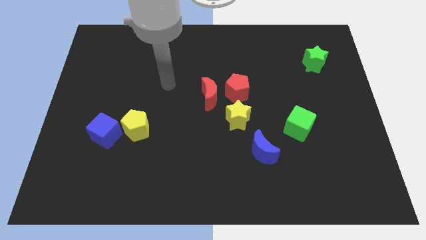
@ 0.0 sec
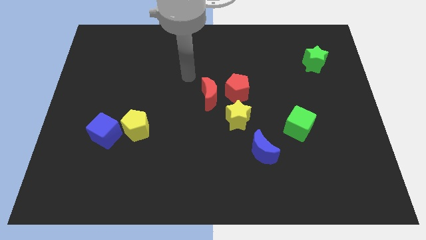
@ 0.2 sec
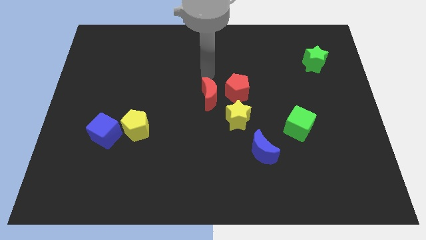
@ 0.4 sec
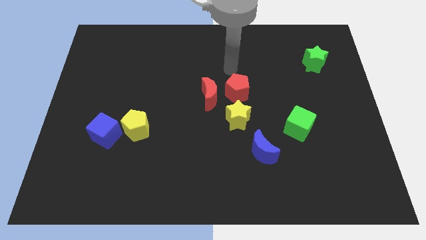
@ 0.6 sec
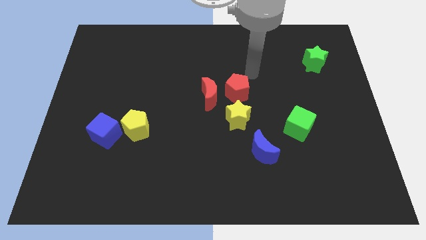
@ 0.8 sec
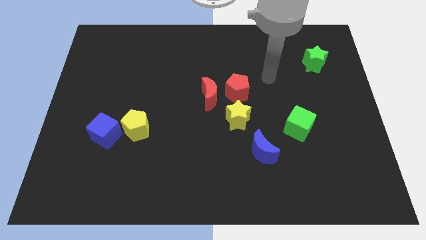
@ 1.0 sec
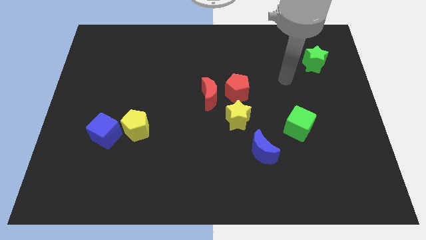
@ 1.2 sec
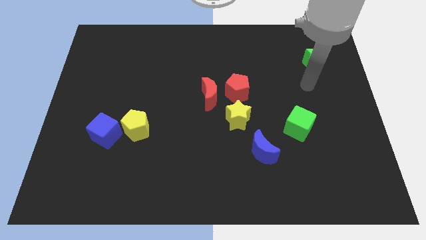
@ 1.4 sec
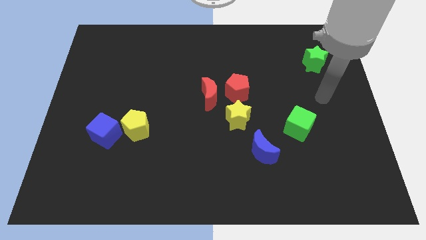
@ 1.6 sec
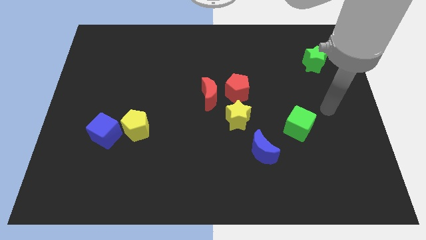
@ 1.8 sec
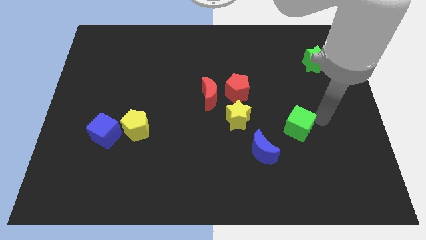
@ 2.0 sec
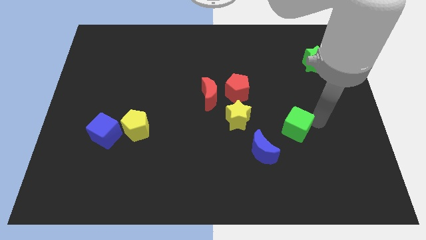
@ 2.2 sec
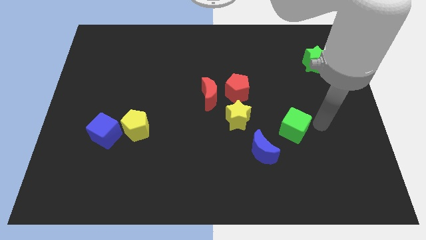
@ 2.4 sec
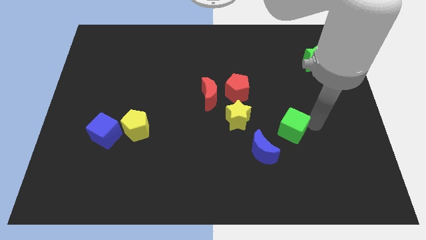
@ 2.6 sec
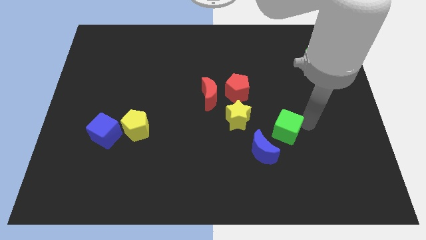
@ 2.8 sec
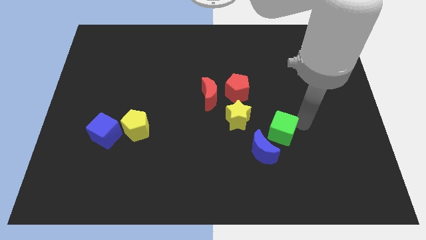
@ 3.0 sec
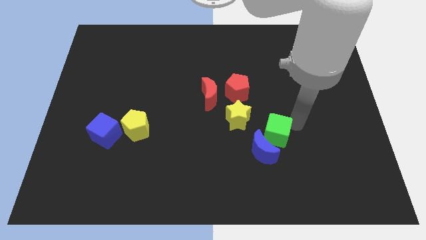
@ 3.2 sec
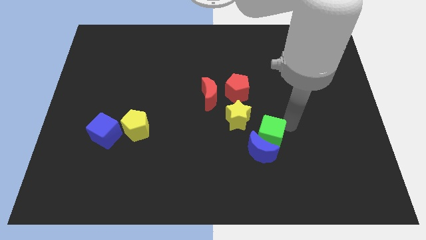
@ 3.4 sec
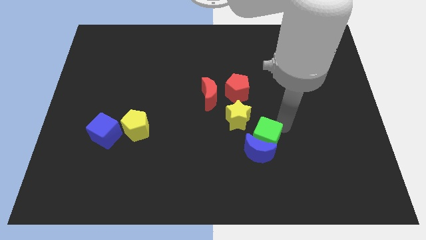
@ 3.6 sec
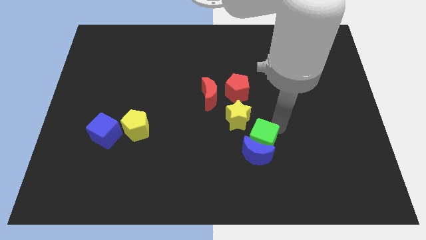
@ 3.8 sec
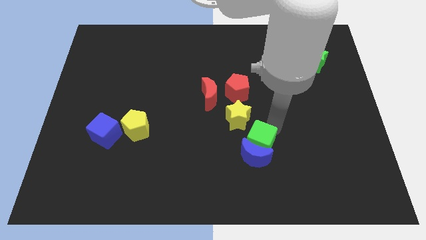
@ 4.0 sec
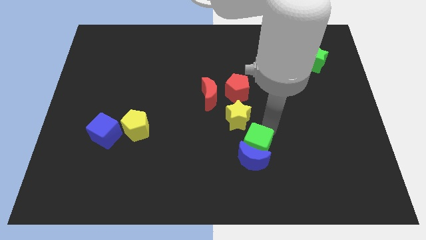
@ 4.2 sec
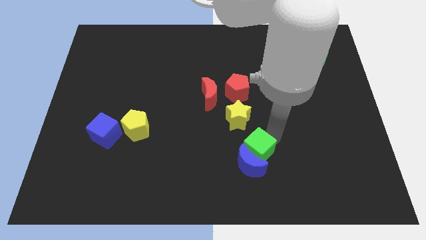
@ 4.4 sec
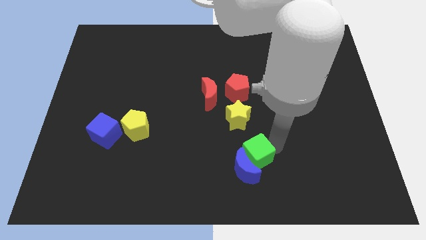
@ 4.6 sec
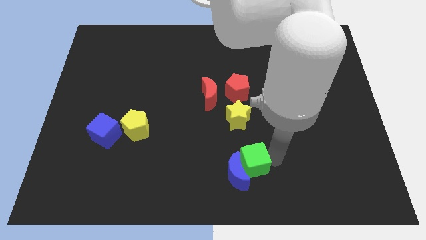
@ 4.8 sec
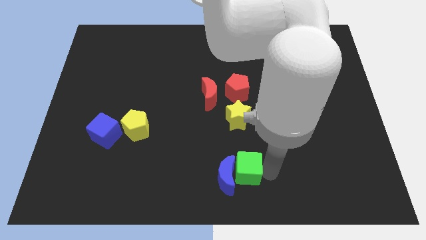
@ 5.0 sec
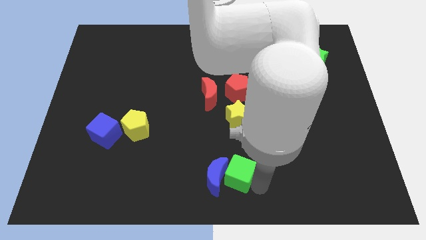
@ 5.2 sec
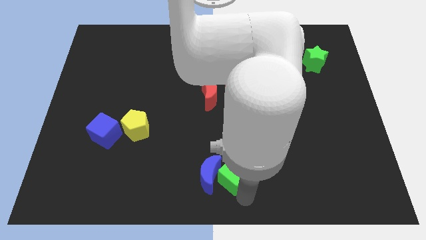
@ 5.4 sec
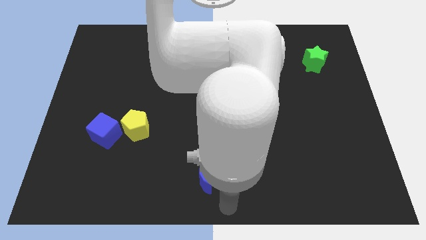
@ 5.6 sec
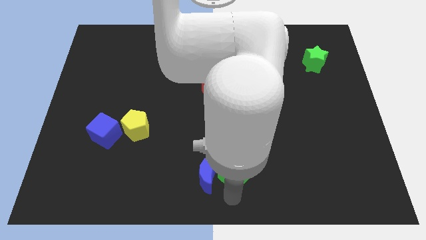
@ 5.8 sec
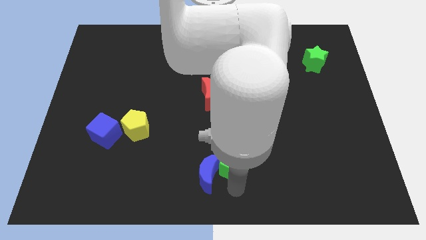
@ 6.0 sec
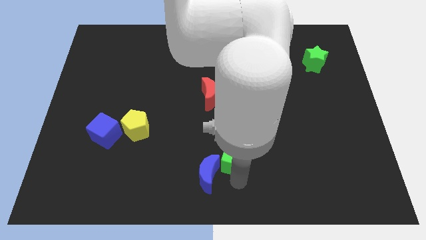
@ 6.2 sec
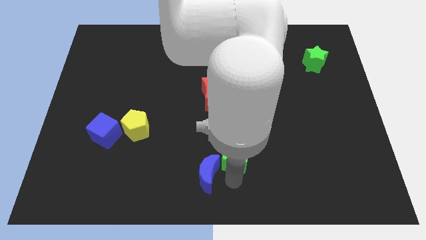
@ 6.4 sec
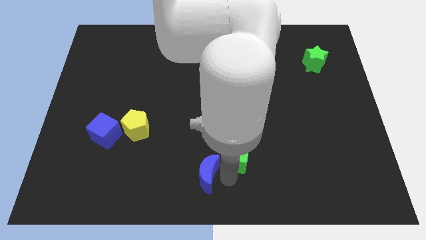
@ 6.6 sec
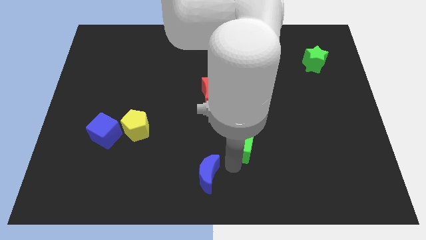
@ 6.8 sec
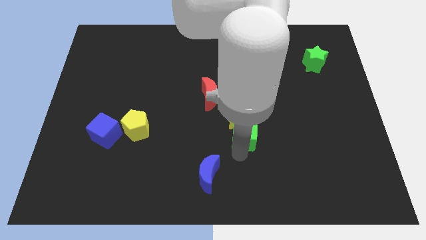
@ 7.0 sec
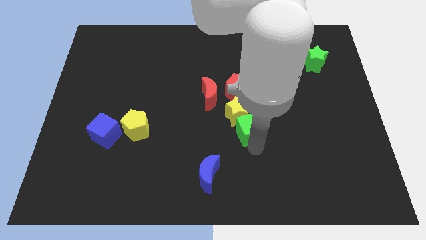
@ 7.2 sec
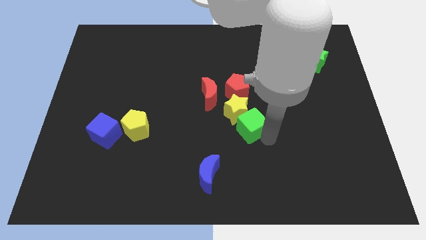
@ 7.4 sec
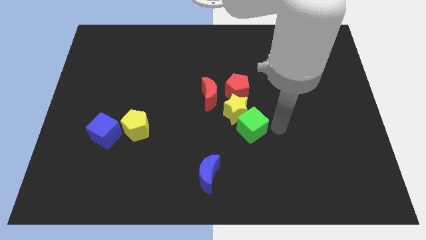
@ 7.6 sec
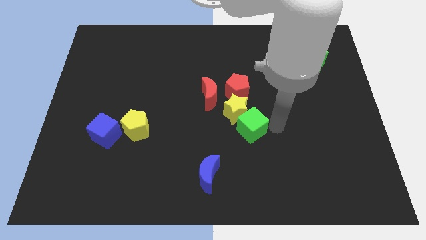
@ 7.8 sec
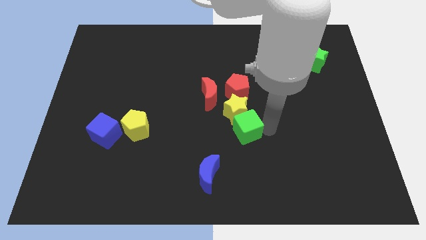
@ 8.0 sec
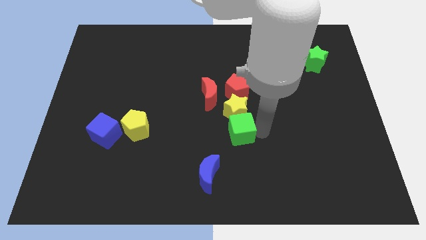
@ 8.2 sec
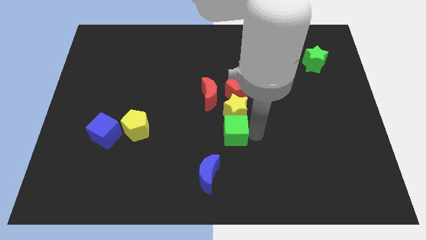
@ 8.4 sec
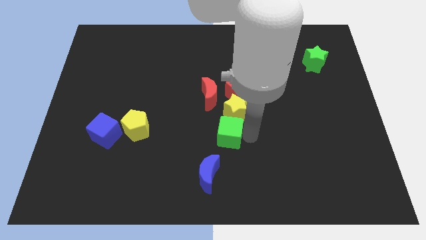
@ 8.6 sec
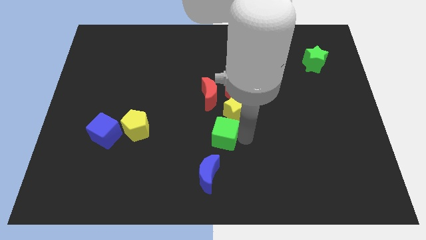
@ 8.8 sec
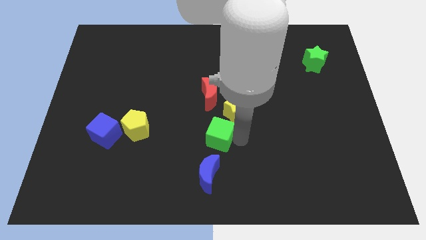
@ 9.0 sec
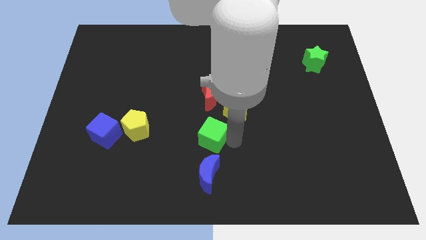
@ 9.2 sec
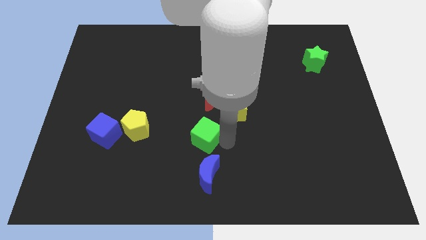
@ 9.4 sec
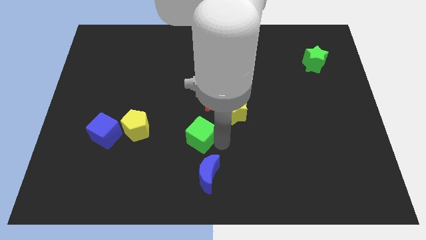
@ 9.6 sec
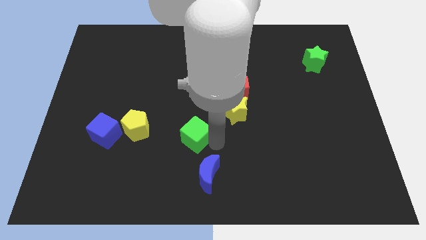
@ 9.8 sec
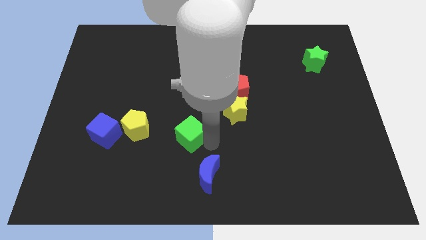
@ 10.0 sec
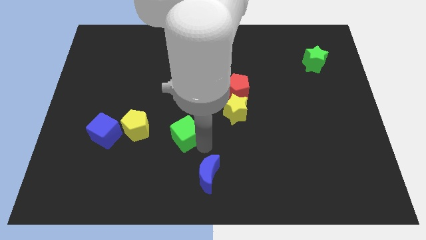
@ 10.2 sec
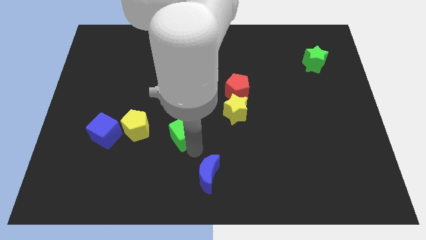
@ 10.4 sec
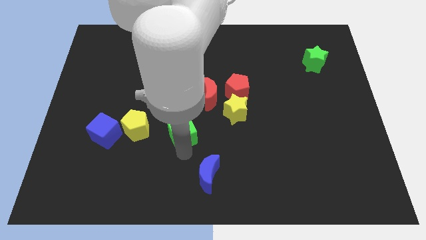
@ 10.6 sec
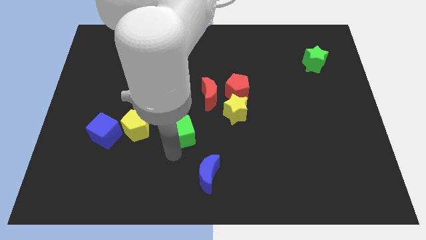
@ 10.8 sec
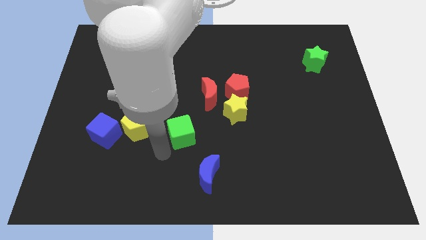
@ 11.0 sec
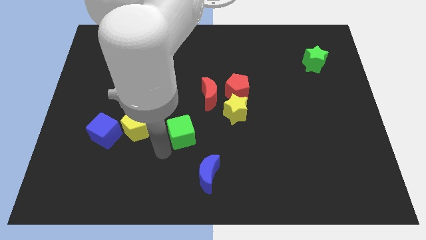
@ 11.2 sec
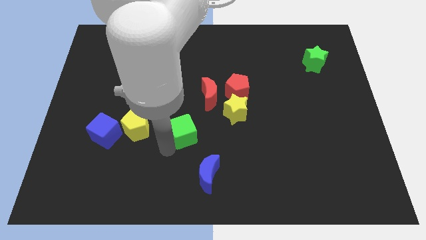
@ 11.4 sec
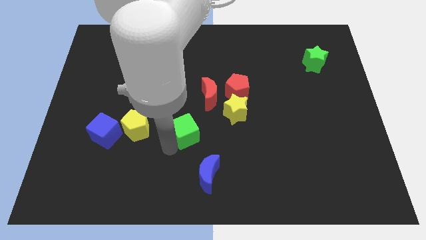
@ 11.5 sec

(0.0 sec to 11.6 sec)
push the green cube to the bottom left side of the red moon

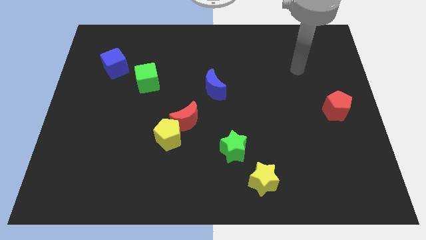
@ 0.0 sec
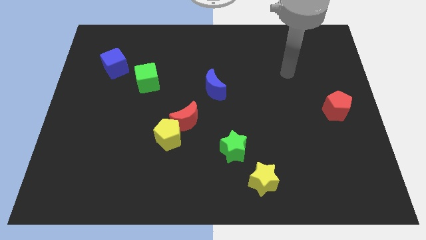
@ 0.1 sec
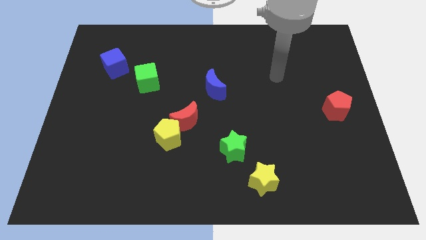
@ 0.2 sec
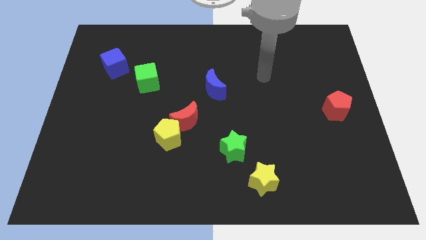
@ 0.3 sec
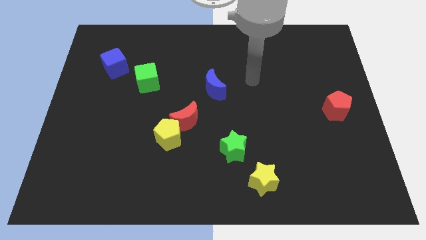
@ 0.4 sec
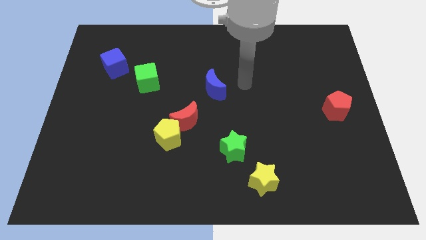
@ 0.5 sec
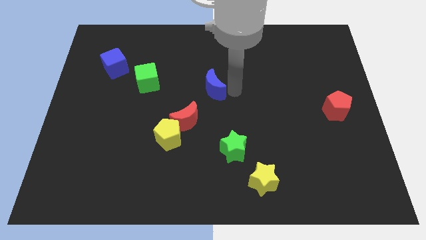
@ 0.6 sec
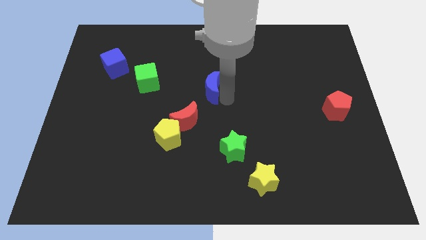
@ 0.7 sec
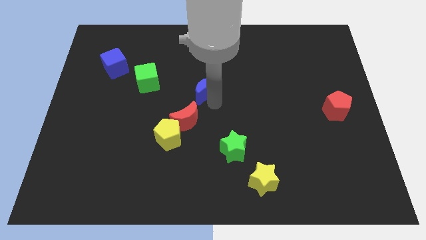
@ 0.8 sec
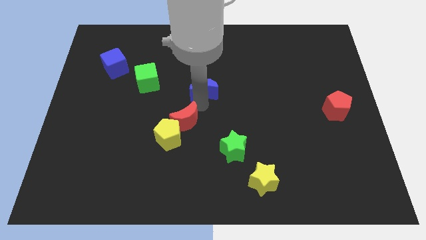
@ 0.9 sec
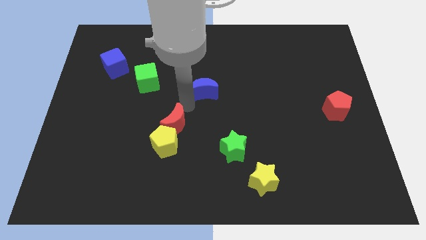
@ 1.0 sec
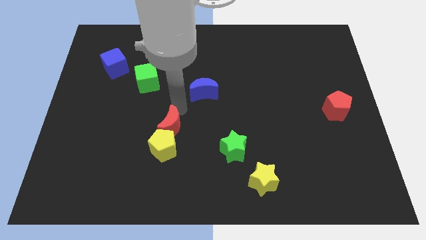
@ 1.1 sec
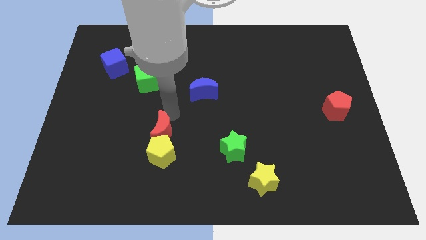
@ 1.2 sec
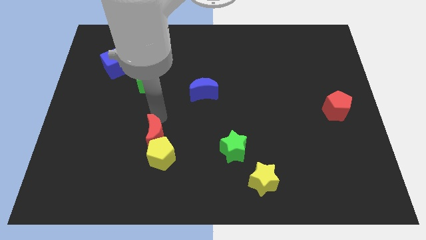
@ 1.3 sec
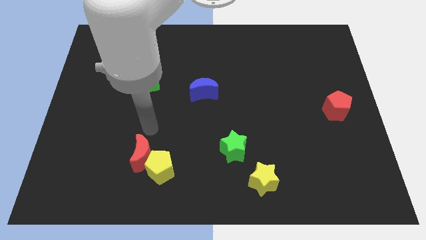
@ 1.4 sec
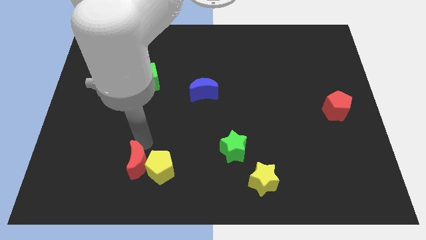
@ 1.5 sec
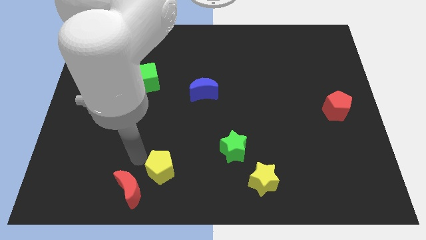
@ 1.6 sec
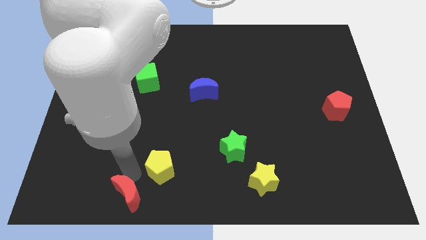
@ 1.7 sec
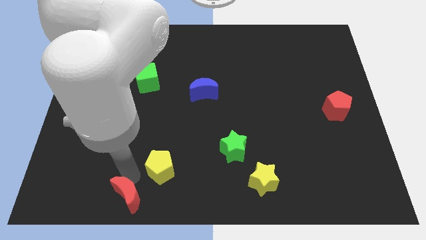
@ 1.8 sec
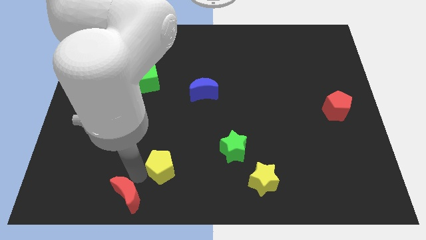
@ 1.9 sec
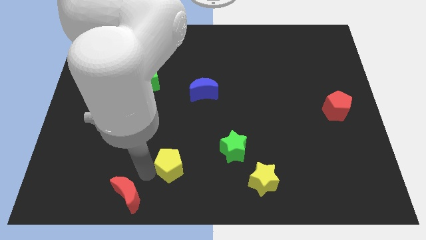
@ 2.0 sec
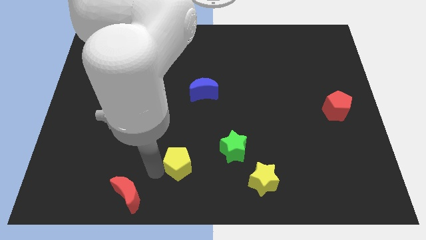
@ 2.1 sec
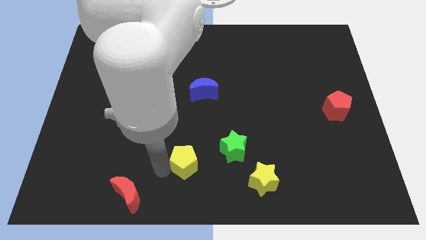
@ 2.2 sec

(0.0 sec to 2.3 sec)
slide the yellow pentagon diagonally down and to the left of the green star
